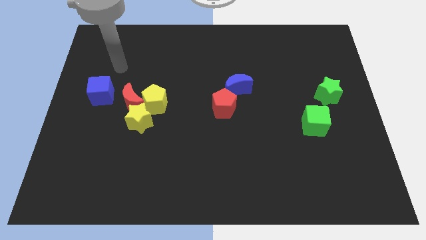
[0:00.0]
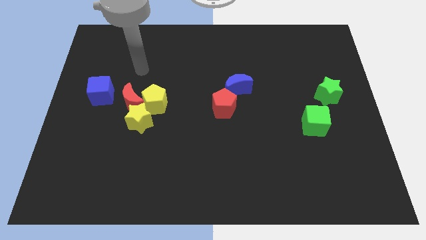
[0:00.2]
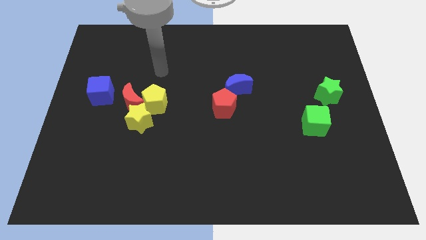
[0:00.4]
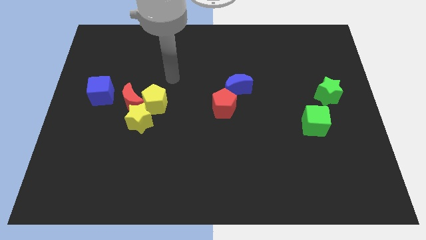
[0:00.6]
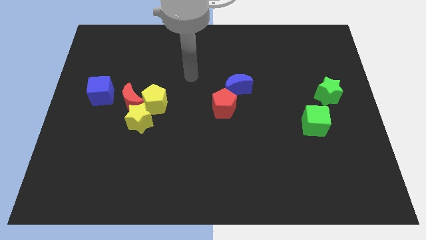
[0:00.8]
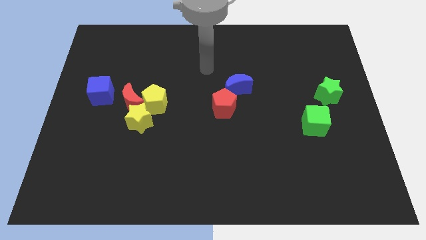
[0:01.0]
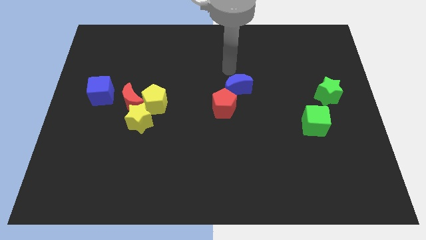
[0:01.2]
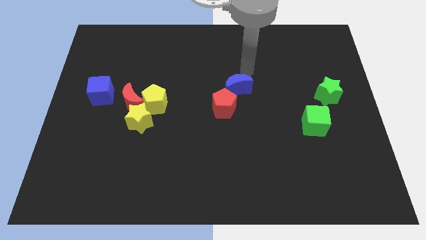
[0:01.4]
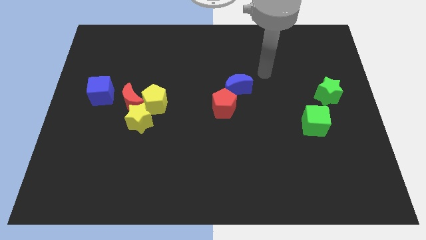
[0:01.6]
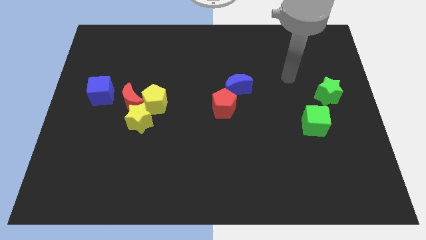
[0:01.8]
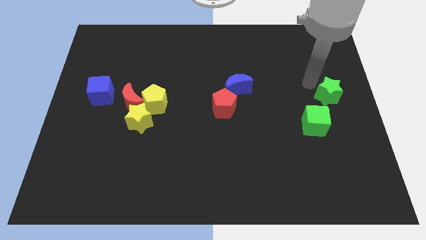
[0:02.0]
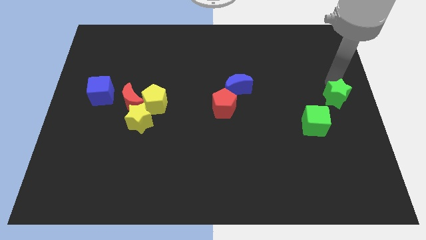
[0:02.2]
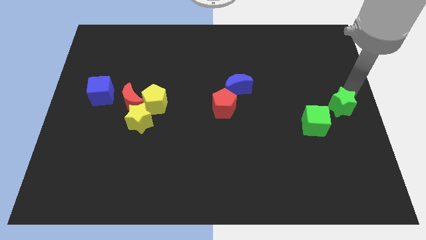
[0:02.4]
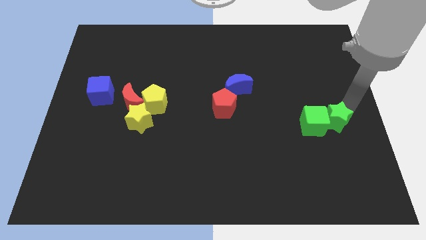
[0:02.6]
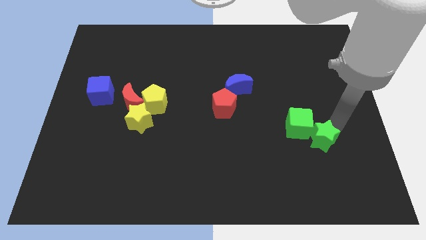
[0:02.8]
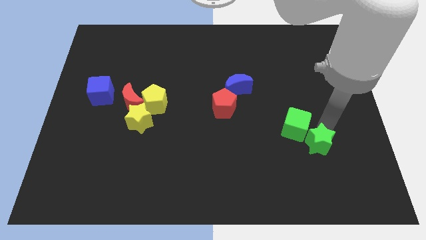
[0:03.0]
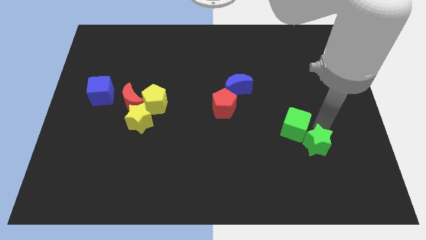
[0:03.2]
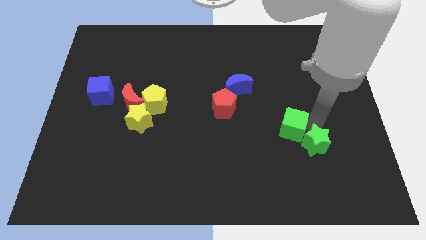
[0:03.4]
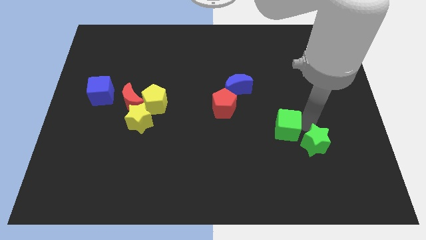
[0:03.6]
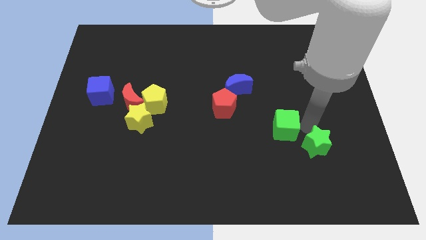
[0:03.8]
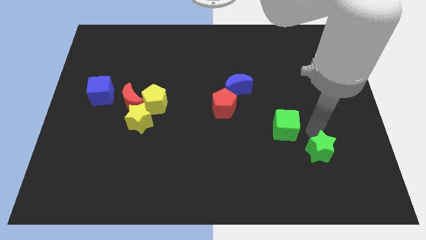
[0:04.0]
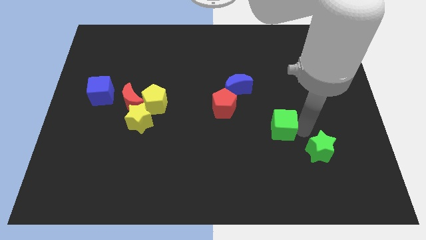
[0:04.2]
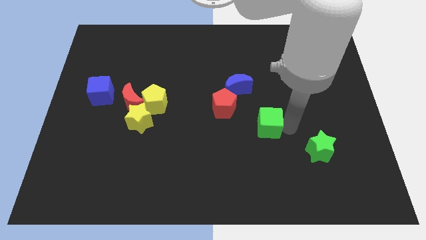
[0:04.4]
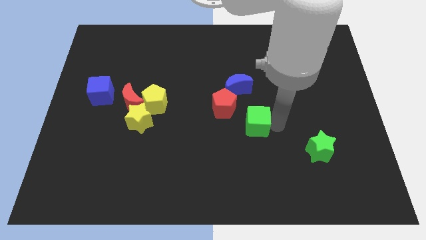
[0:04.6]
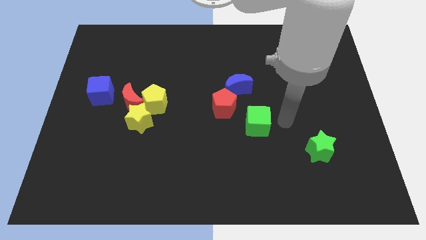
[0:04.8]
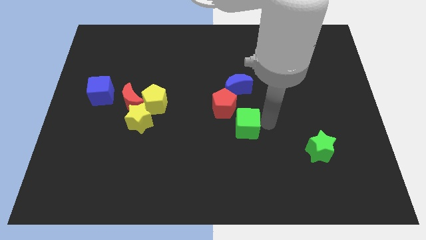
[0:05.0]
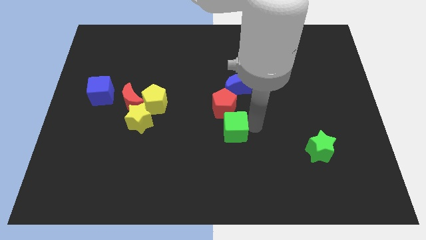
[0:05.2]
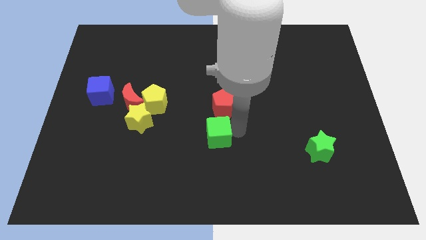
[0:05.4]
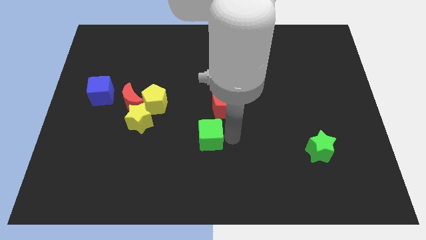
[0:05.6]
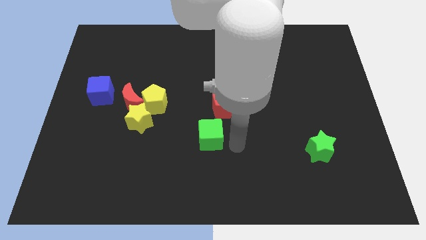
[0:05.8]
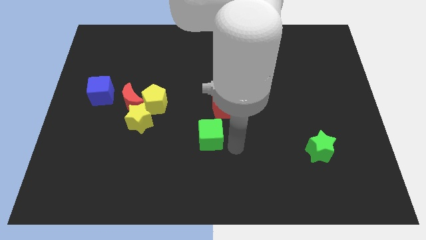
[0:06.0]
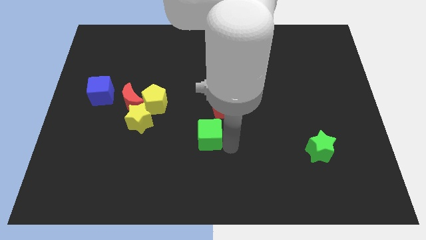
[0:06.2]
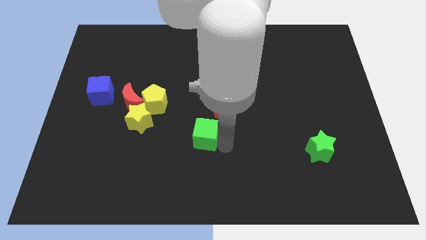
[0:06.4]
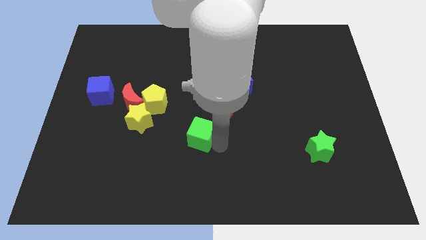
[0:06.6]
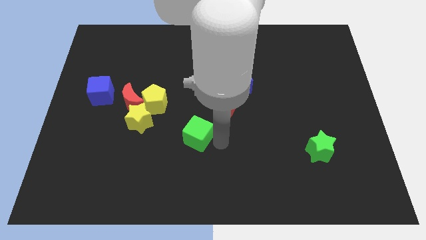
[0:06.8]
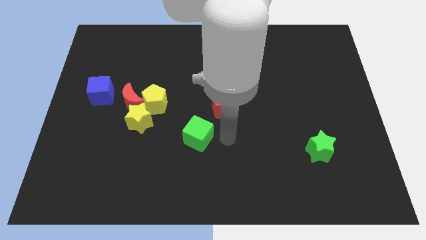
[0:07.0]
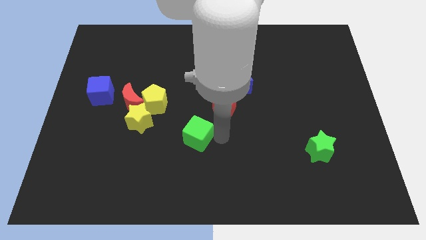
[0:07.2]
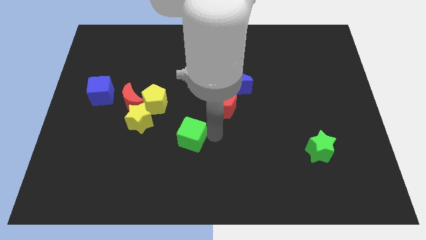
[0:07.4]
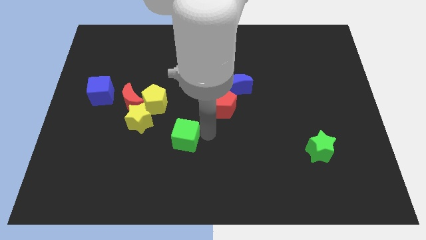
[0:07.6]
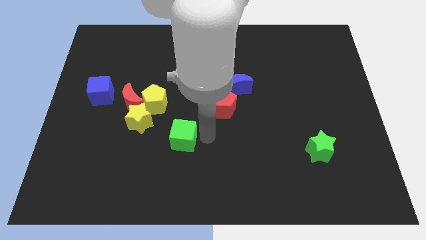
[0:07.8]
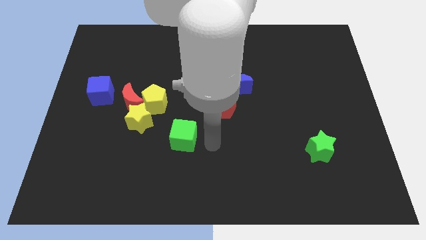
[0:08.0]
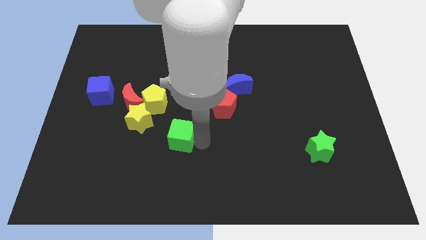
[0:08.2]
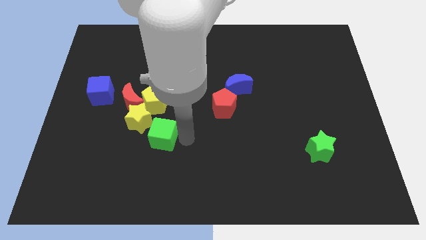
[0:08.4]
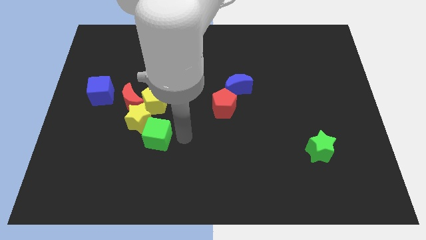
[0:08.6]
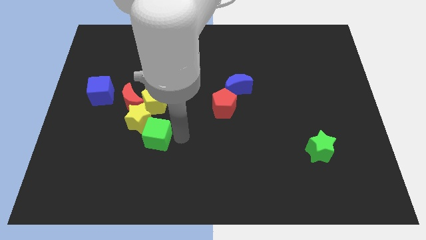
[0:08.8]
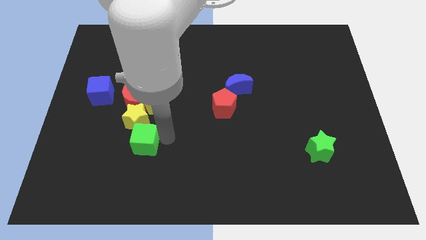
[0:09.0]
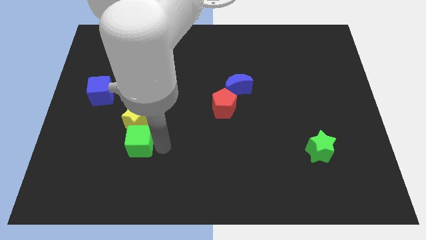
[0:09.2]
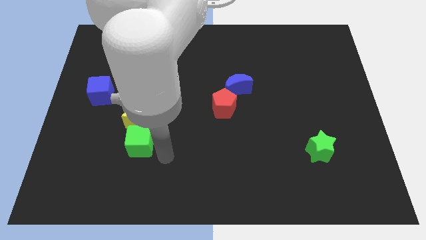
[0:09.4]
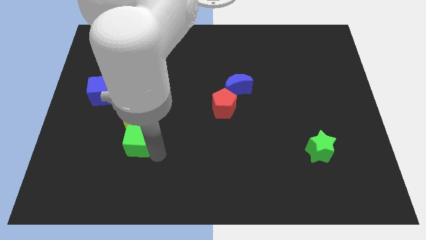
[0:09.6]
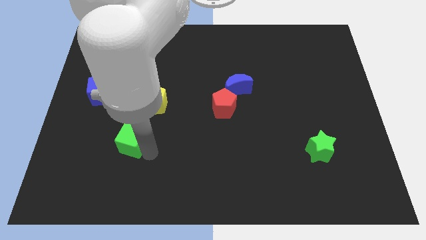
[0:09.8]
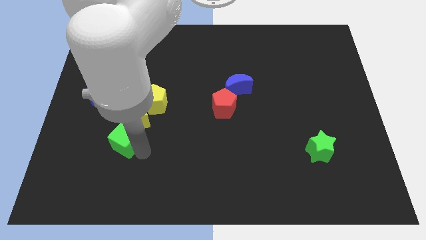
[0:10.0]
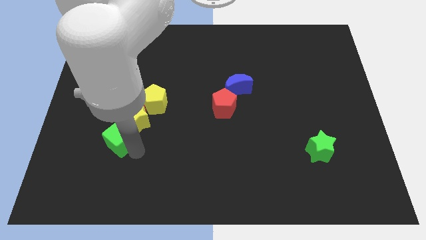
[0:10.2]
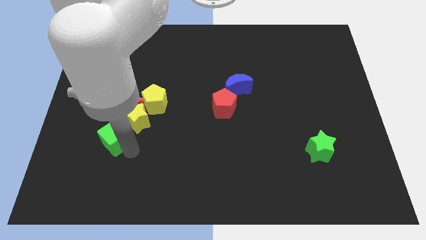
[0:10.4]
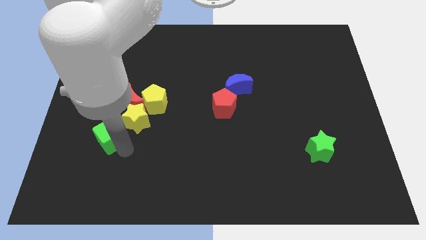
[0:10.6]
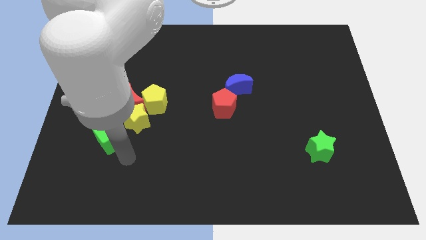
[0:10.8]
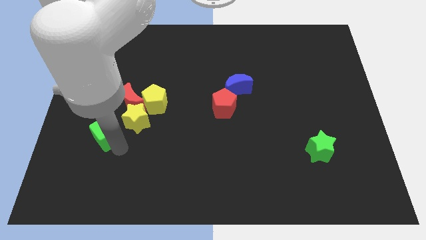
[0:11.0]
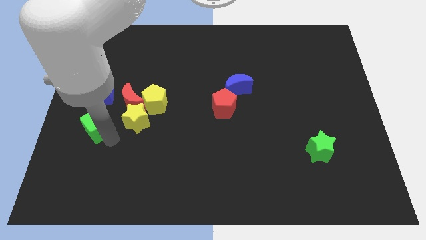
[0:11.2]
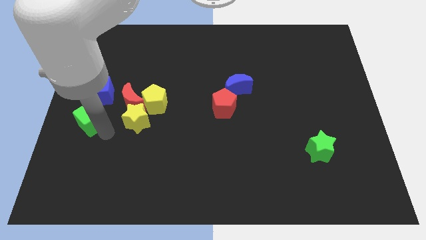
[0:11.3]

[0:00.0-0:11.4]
push the green cube to the center left
